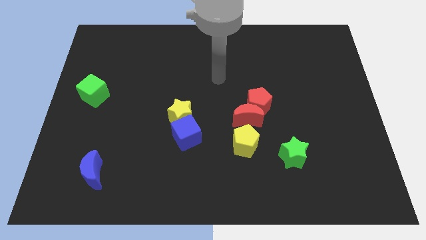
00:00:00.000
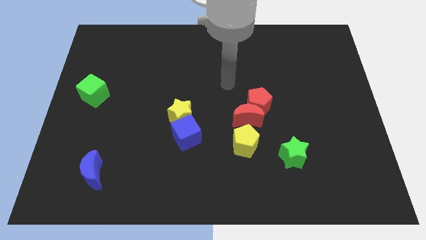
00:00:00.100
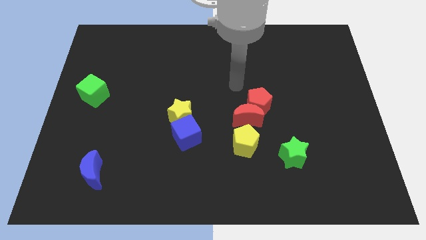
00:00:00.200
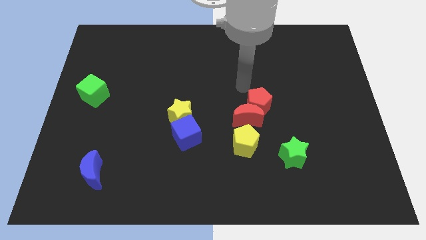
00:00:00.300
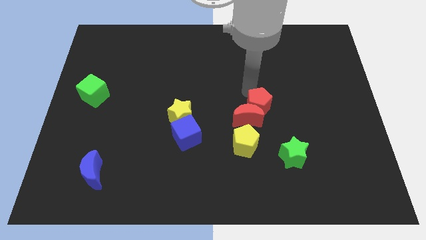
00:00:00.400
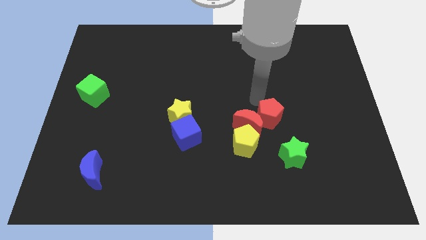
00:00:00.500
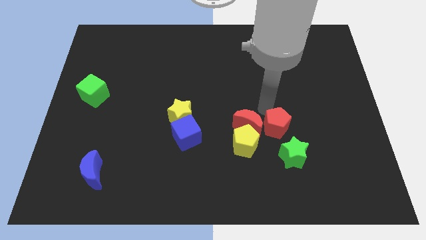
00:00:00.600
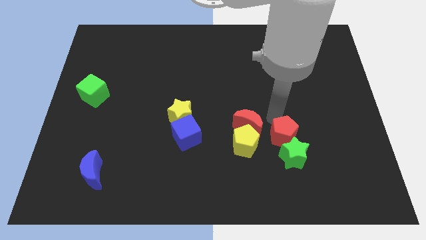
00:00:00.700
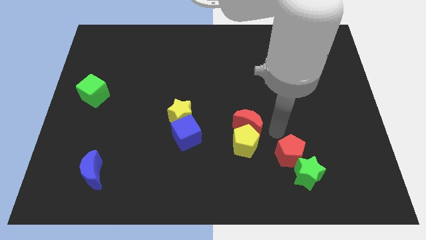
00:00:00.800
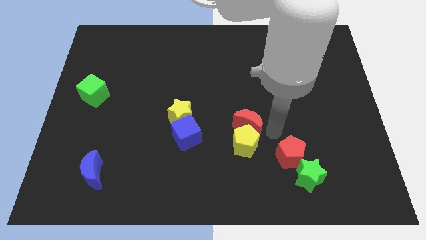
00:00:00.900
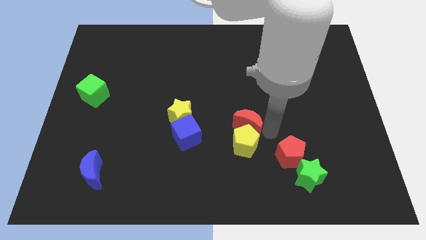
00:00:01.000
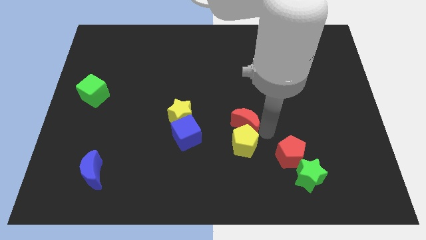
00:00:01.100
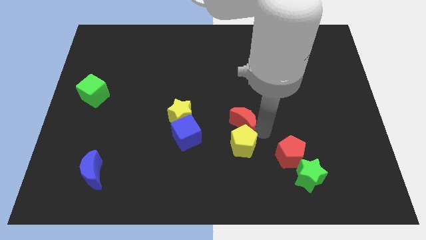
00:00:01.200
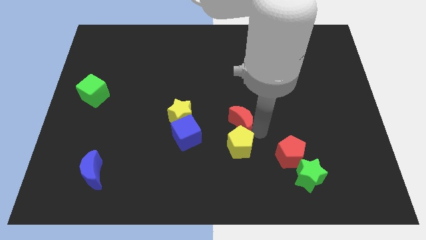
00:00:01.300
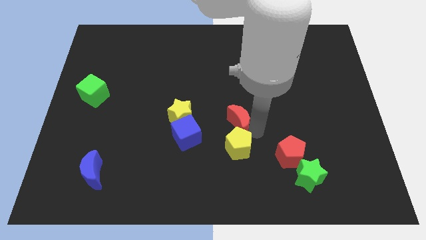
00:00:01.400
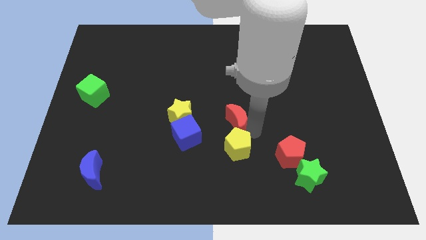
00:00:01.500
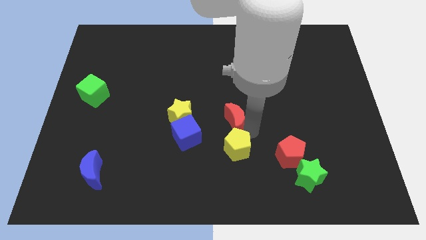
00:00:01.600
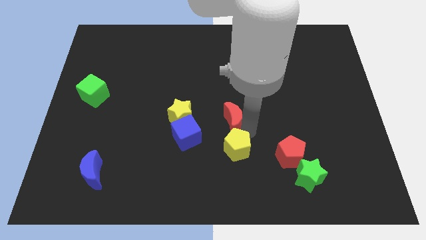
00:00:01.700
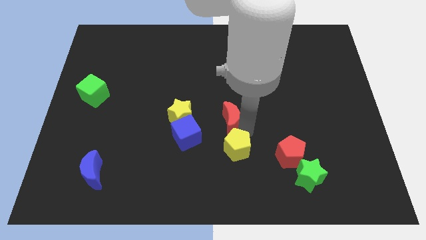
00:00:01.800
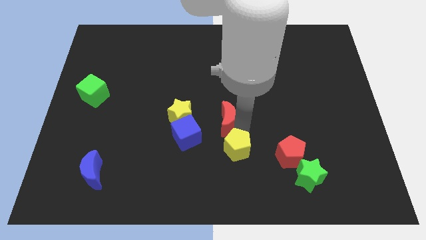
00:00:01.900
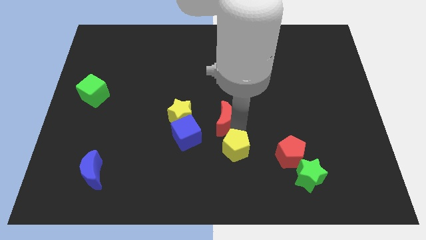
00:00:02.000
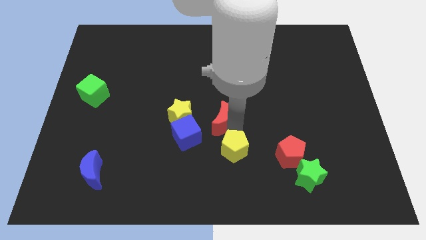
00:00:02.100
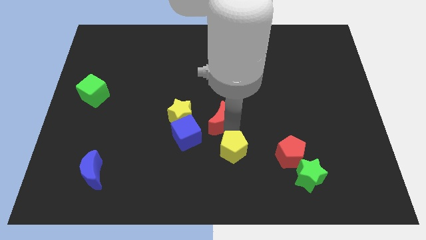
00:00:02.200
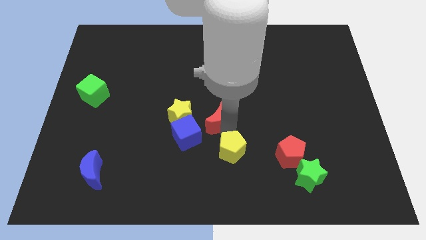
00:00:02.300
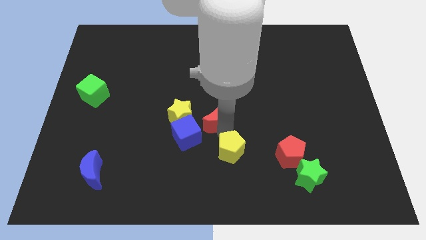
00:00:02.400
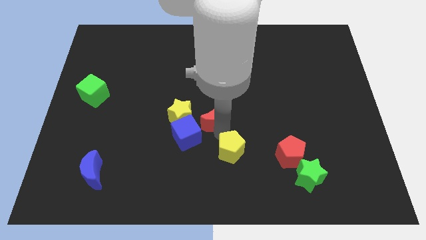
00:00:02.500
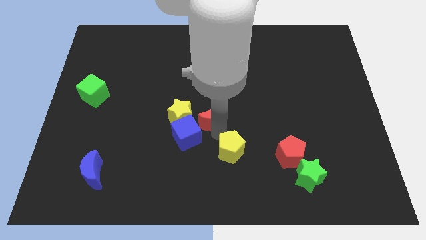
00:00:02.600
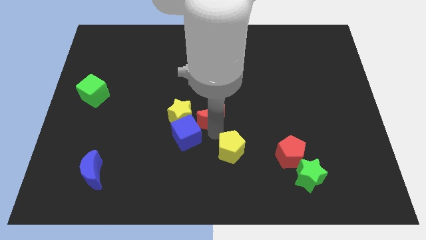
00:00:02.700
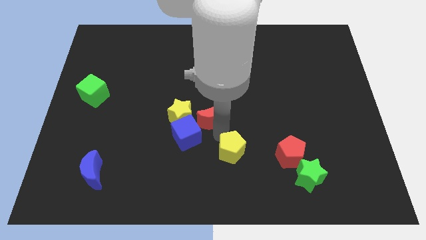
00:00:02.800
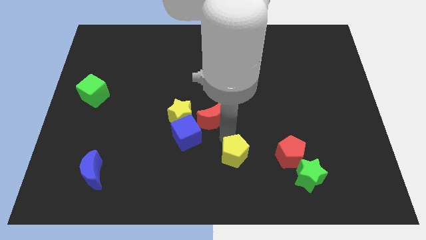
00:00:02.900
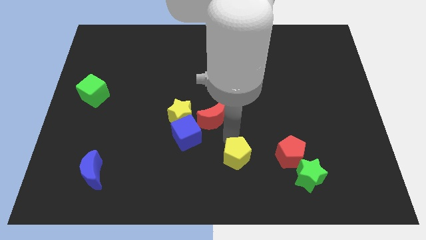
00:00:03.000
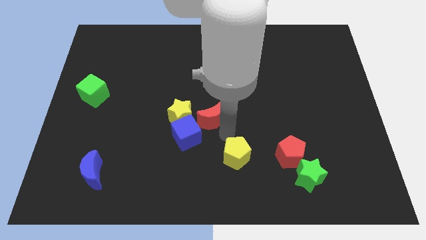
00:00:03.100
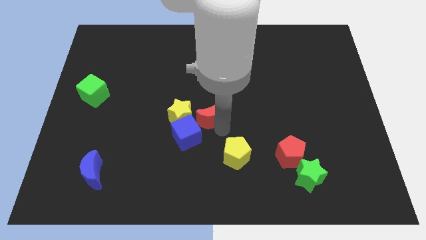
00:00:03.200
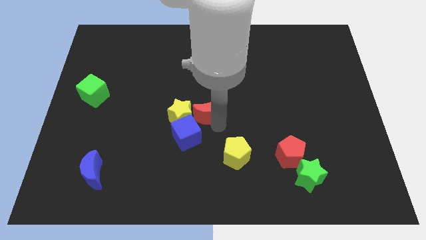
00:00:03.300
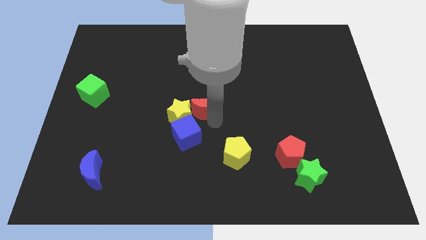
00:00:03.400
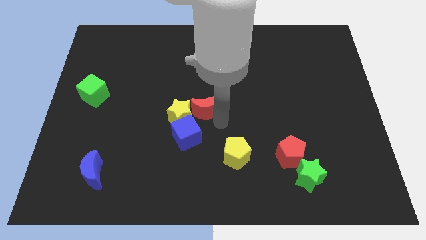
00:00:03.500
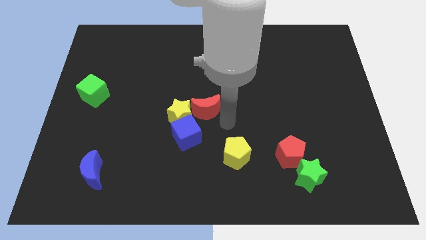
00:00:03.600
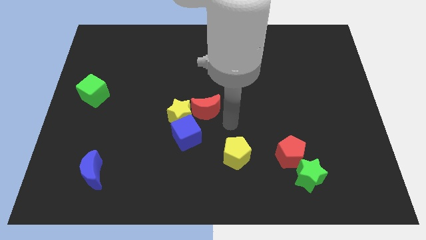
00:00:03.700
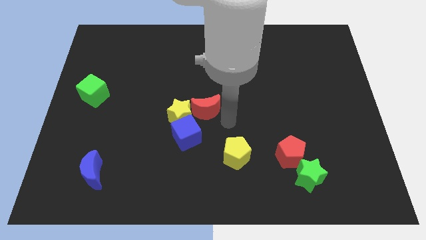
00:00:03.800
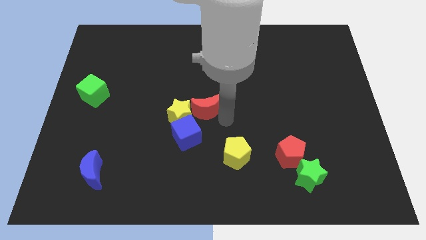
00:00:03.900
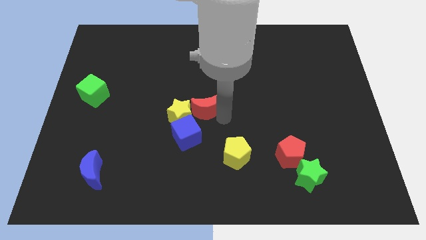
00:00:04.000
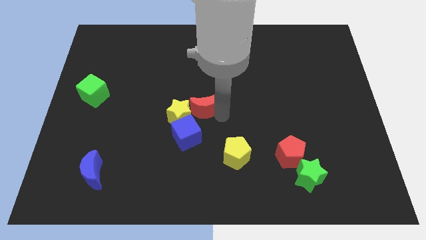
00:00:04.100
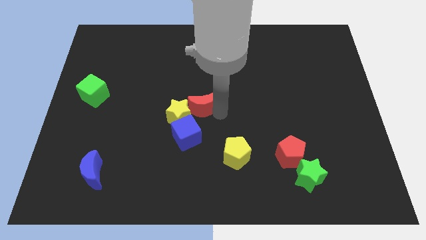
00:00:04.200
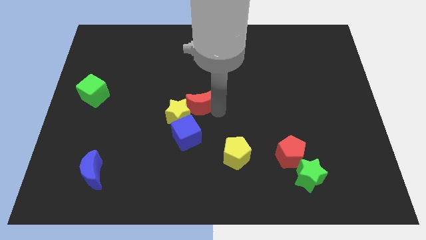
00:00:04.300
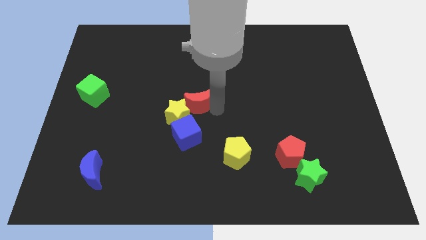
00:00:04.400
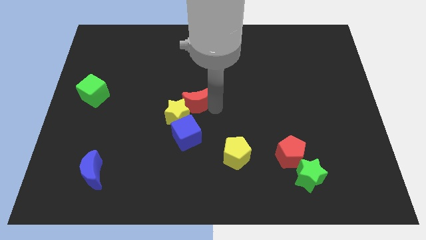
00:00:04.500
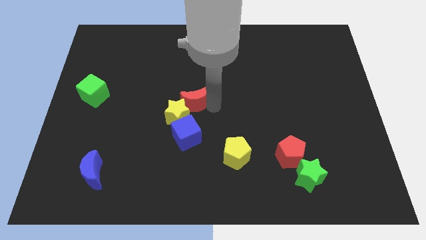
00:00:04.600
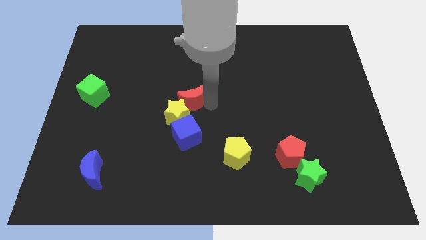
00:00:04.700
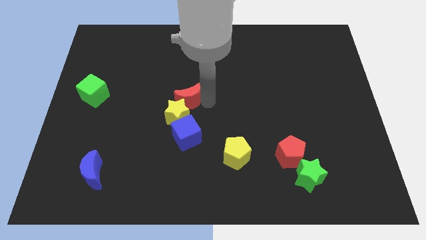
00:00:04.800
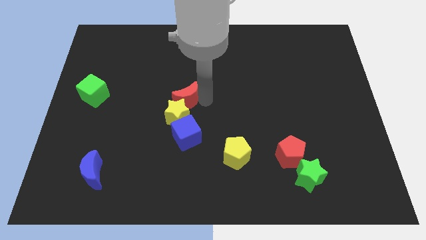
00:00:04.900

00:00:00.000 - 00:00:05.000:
push the red moon to the top left of the yellow star

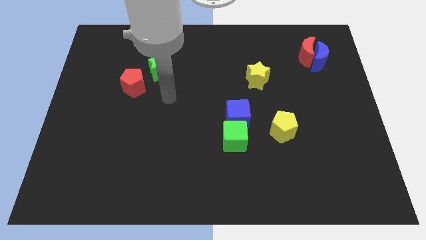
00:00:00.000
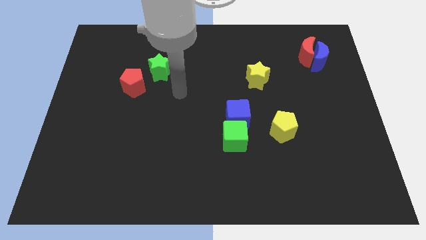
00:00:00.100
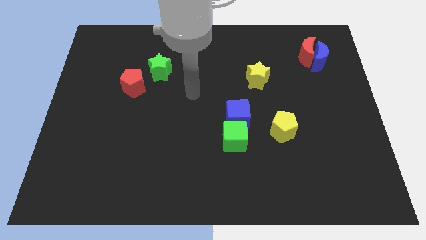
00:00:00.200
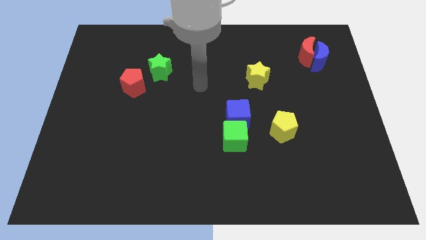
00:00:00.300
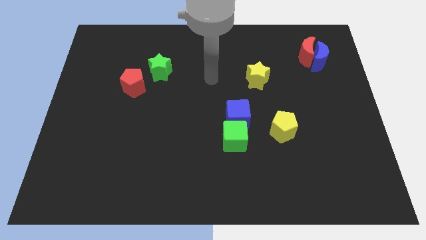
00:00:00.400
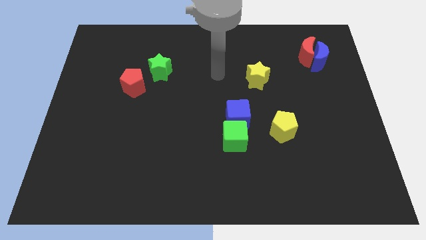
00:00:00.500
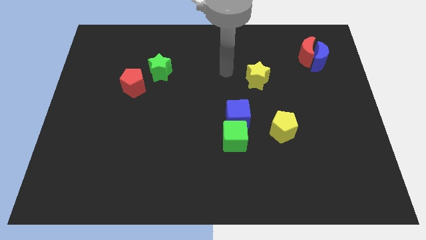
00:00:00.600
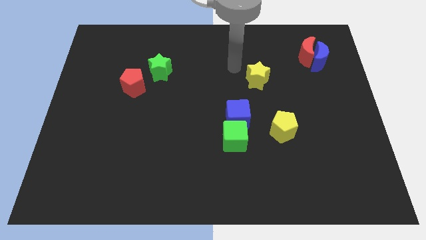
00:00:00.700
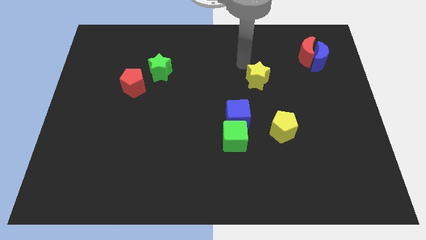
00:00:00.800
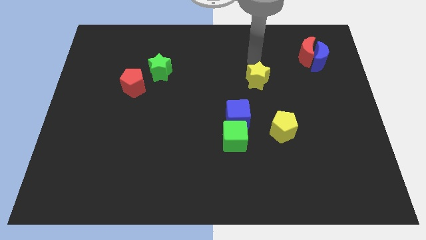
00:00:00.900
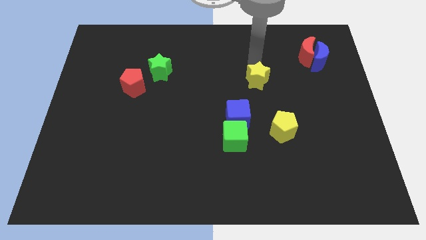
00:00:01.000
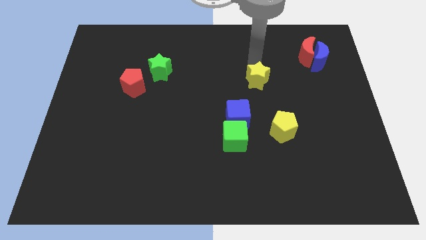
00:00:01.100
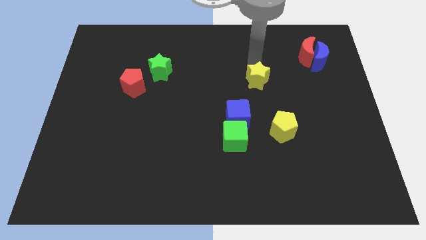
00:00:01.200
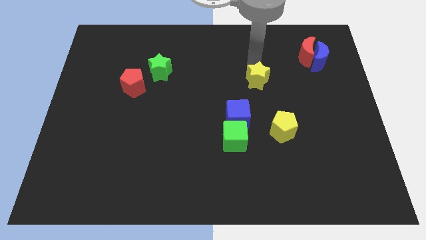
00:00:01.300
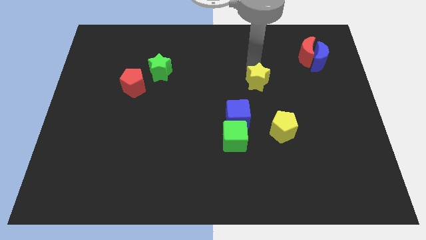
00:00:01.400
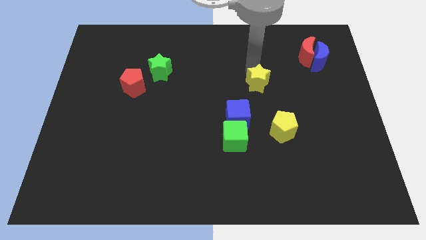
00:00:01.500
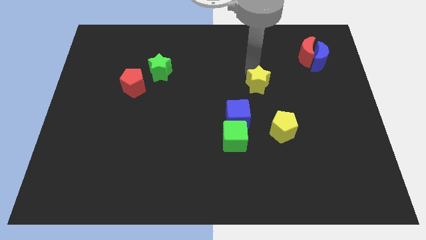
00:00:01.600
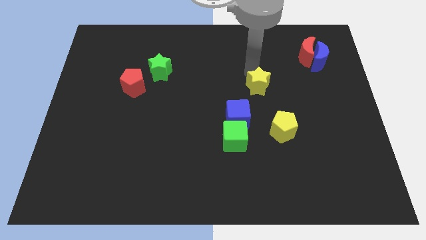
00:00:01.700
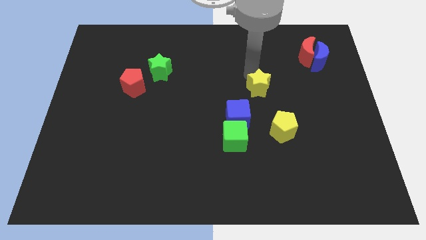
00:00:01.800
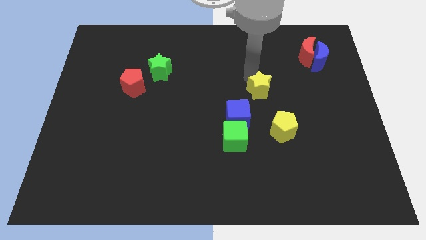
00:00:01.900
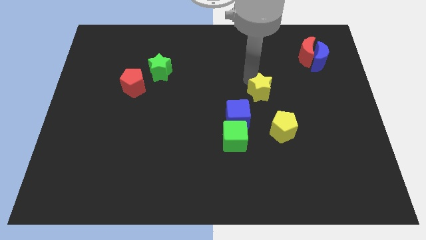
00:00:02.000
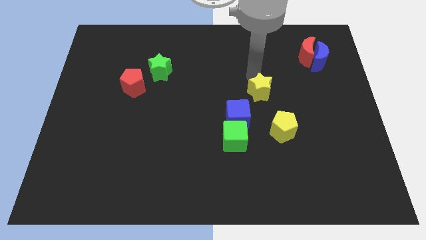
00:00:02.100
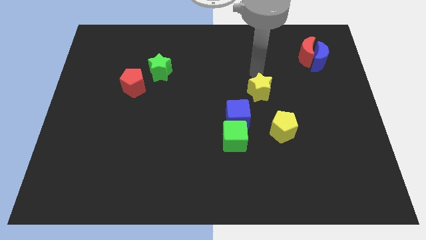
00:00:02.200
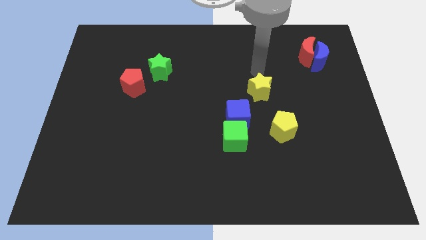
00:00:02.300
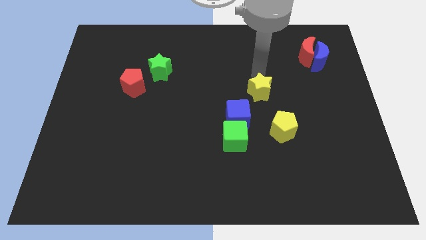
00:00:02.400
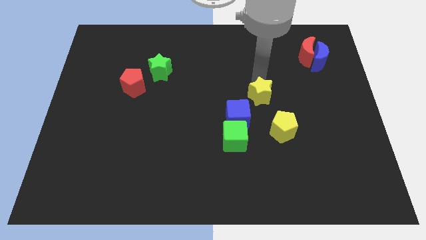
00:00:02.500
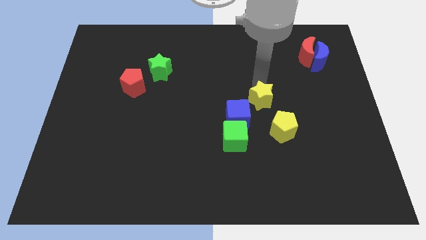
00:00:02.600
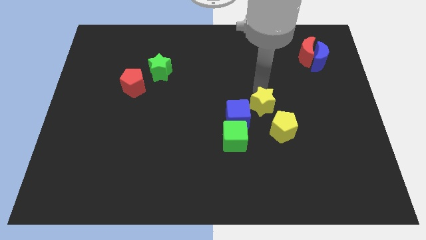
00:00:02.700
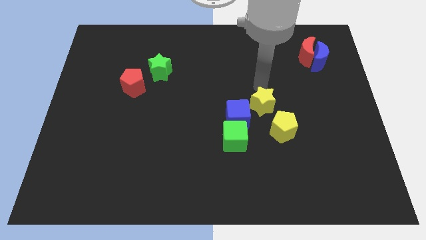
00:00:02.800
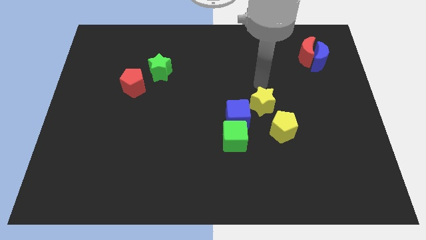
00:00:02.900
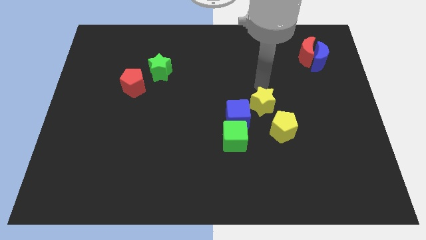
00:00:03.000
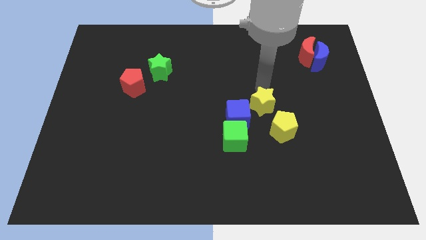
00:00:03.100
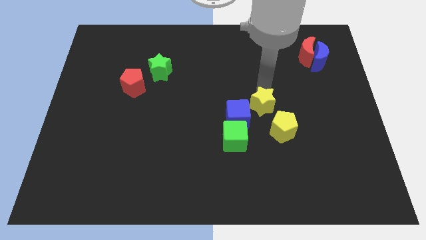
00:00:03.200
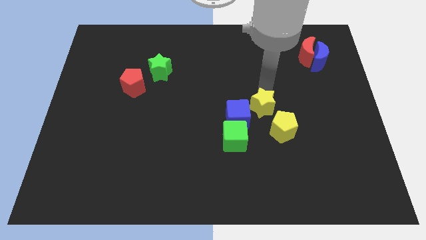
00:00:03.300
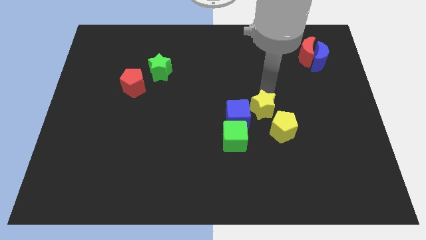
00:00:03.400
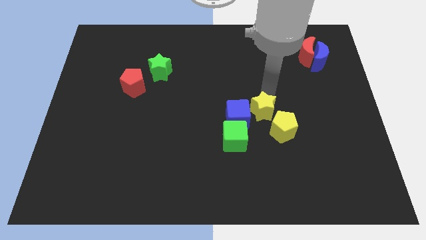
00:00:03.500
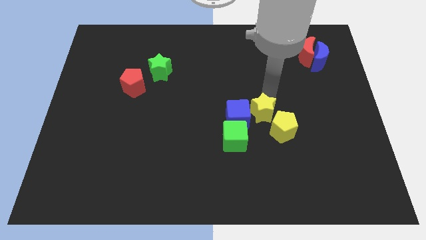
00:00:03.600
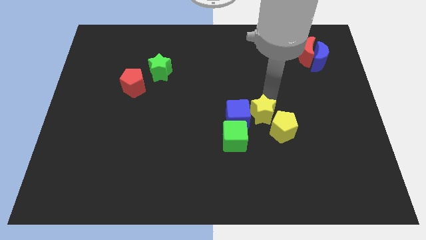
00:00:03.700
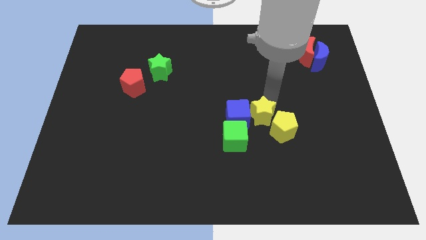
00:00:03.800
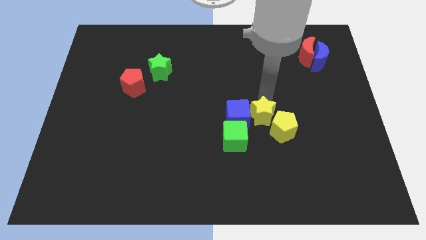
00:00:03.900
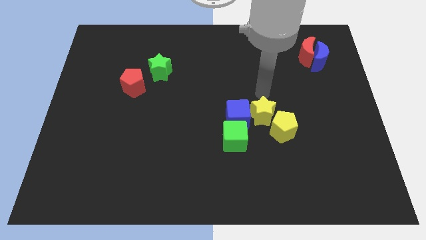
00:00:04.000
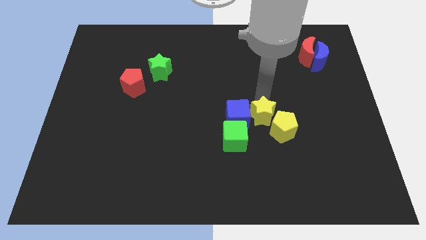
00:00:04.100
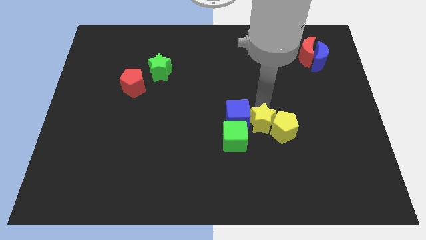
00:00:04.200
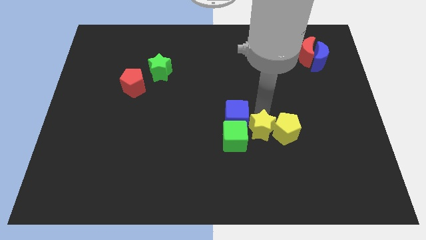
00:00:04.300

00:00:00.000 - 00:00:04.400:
push the yellow star to the bottom left of the yellow pentagon
